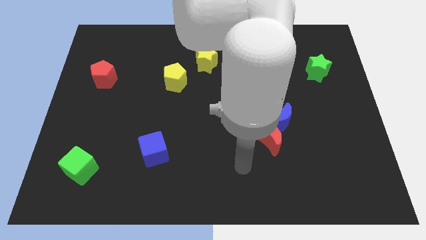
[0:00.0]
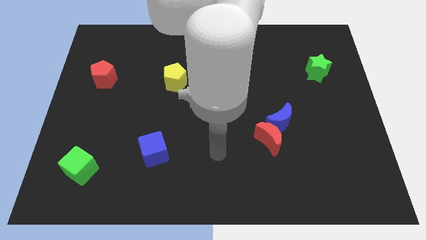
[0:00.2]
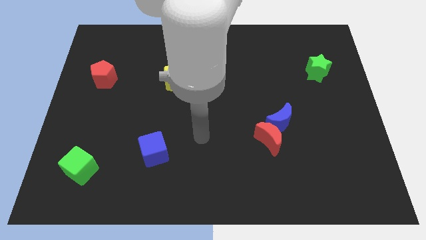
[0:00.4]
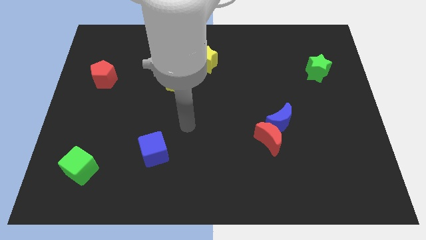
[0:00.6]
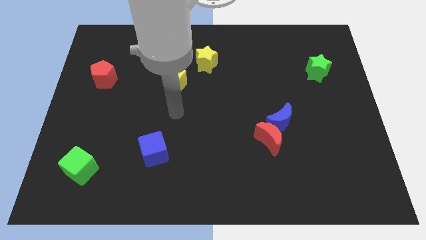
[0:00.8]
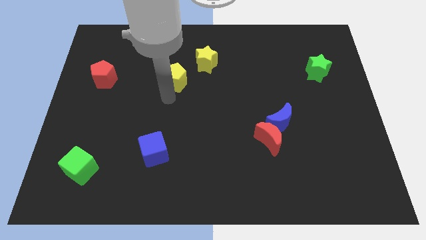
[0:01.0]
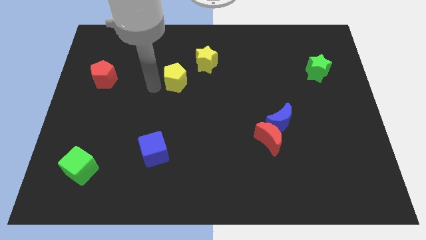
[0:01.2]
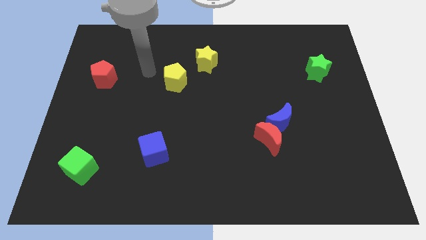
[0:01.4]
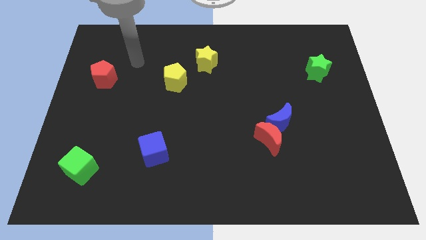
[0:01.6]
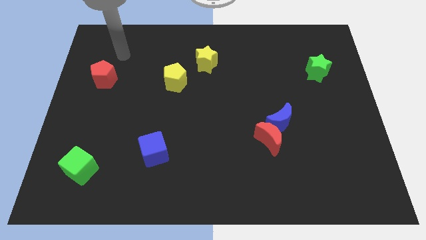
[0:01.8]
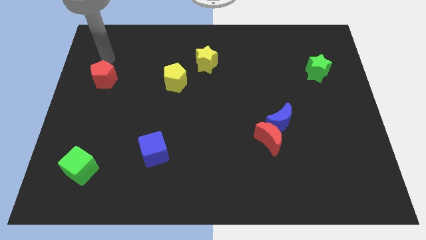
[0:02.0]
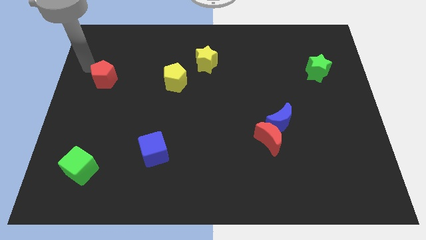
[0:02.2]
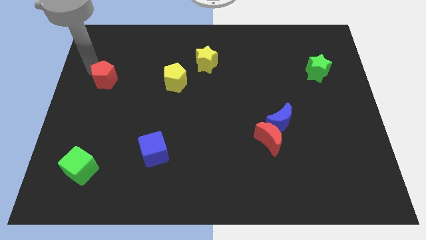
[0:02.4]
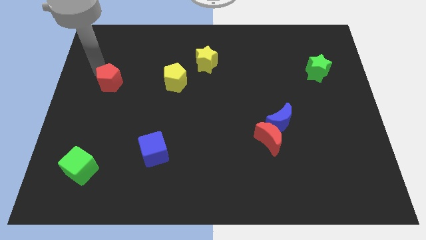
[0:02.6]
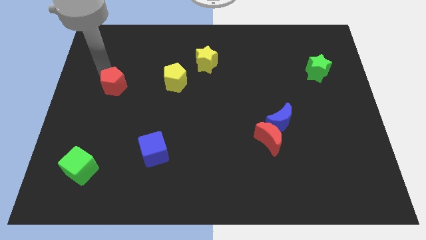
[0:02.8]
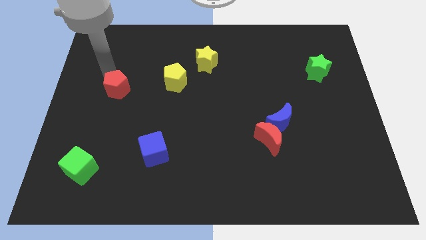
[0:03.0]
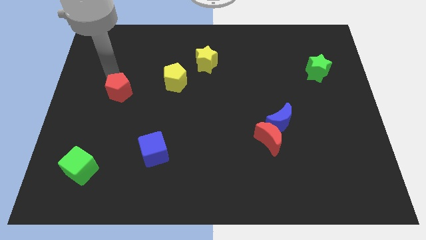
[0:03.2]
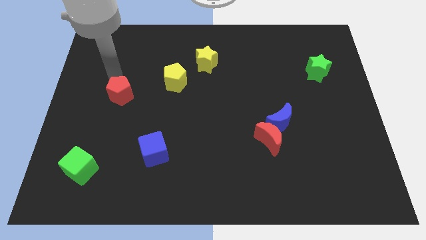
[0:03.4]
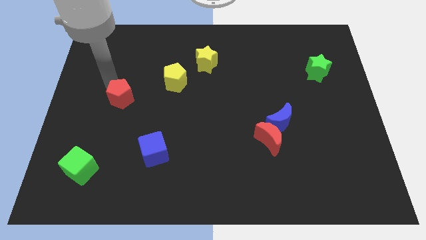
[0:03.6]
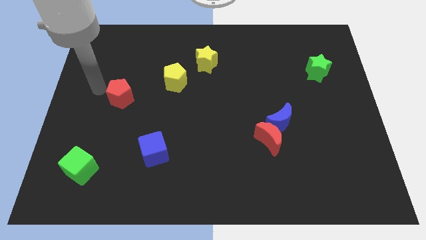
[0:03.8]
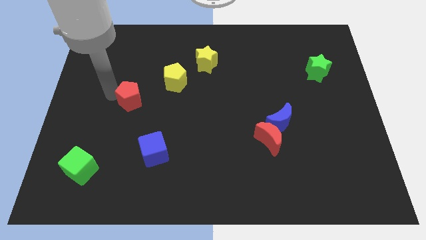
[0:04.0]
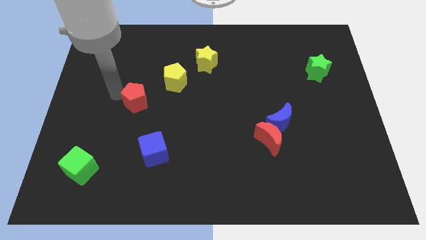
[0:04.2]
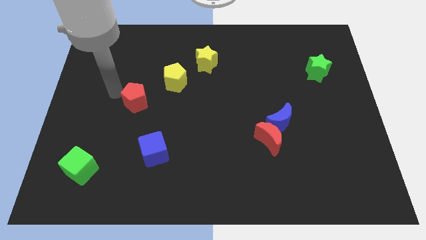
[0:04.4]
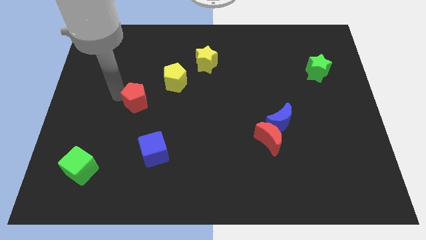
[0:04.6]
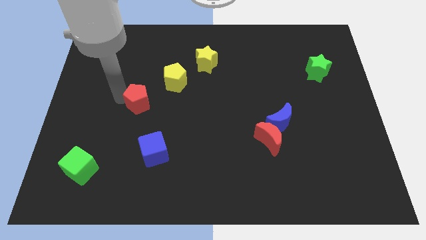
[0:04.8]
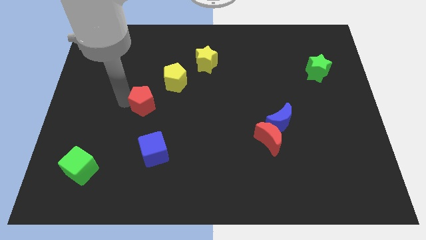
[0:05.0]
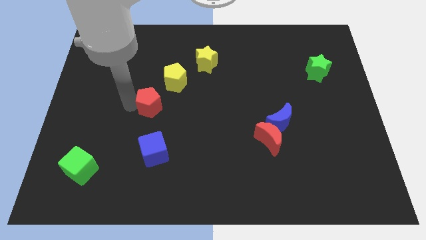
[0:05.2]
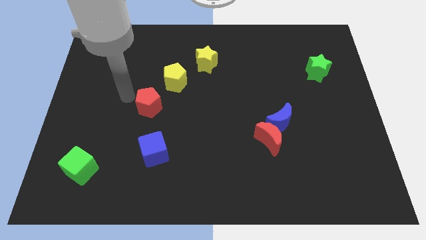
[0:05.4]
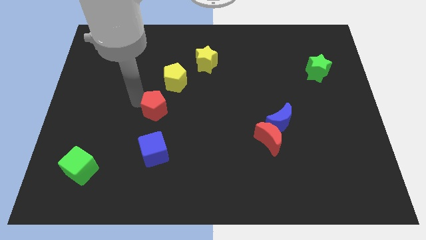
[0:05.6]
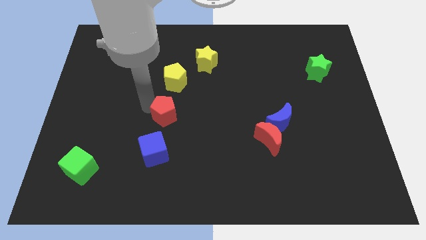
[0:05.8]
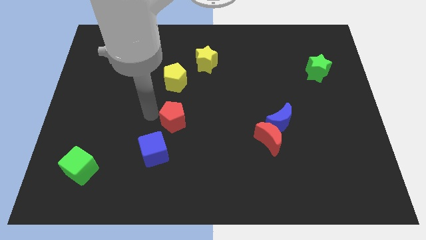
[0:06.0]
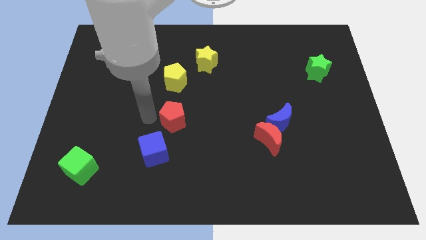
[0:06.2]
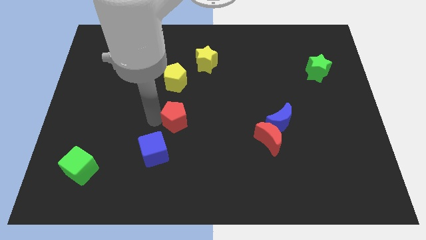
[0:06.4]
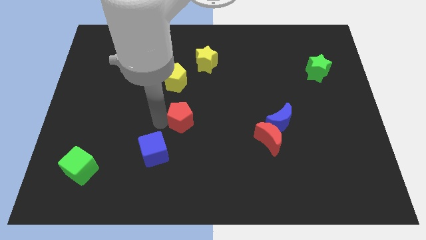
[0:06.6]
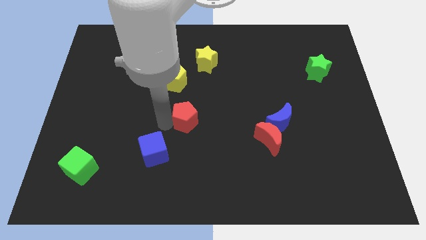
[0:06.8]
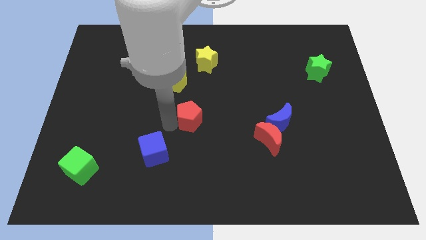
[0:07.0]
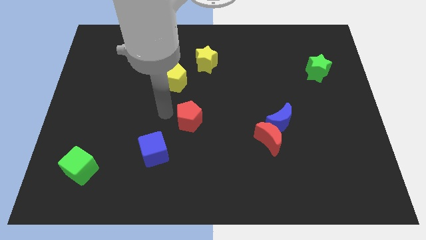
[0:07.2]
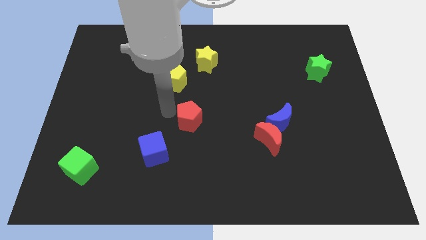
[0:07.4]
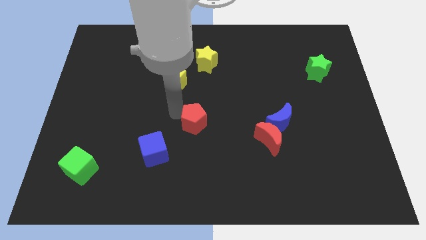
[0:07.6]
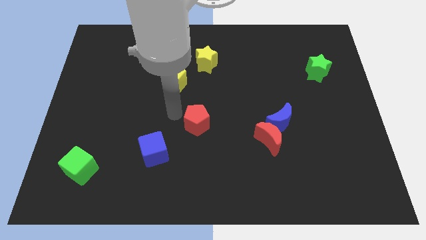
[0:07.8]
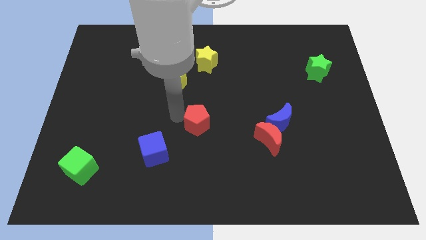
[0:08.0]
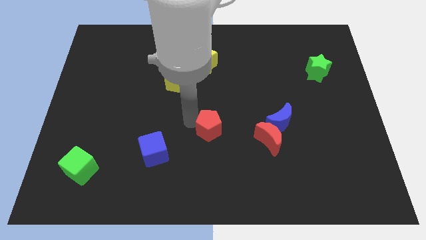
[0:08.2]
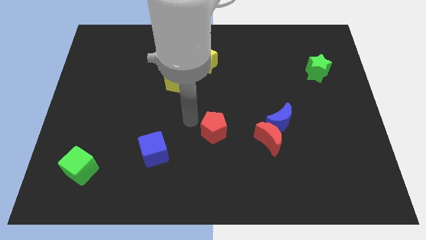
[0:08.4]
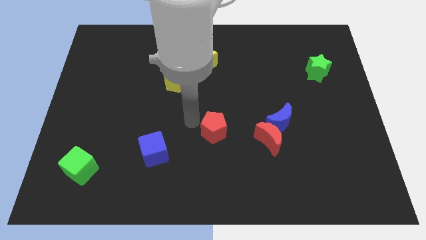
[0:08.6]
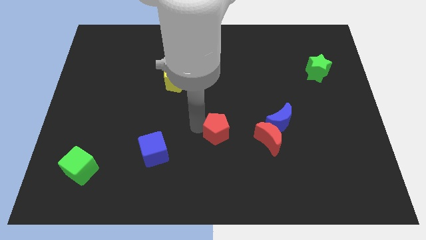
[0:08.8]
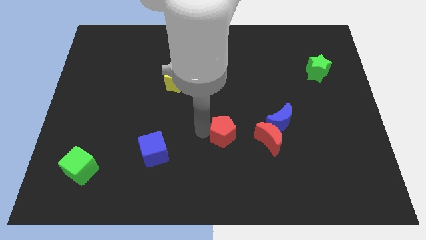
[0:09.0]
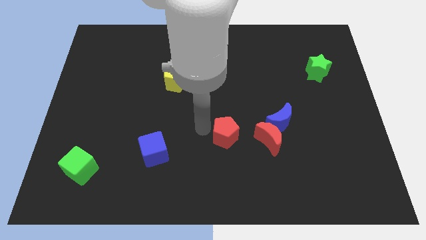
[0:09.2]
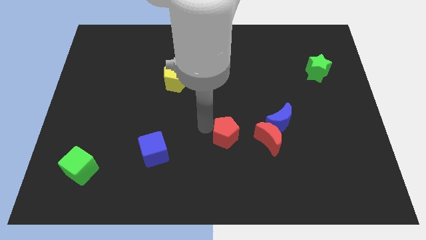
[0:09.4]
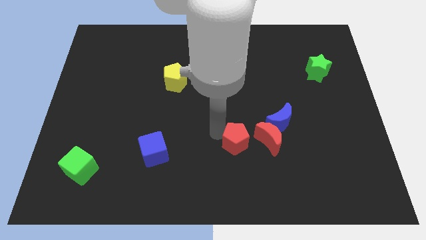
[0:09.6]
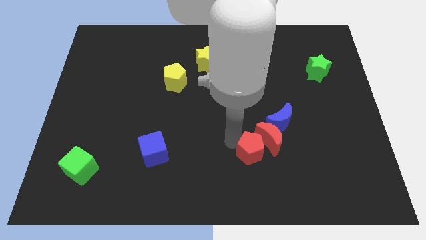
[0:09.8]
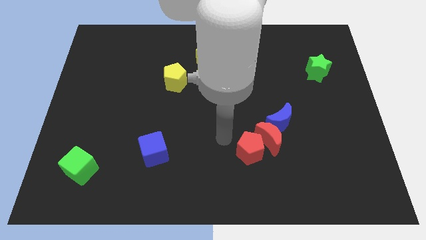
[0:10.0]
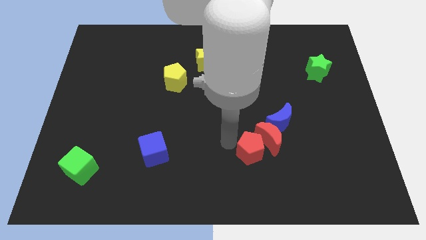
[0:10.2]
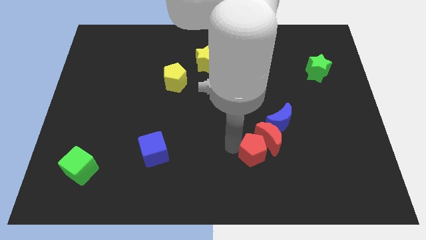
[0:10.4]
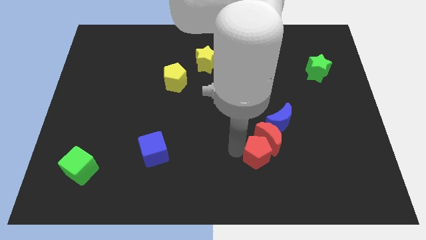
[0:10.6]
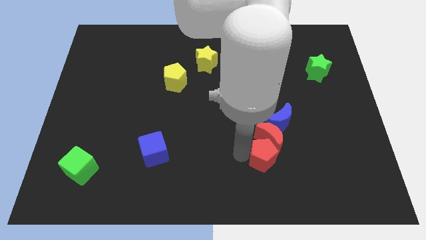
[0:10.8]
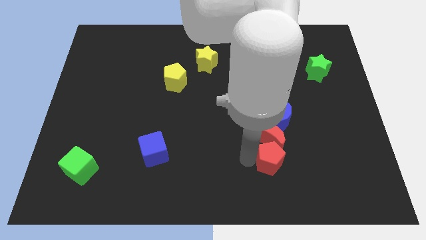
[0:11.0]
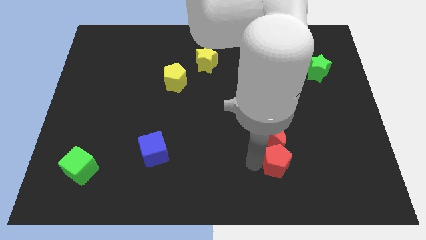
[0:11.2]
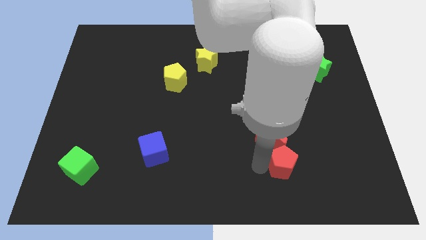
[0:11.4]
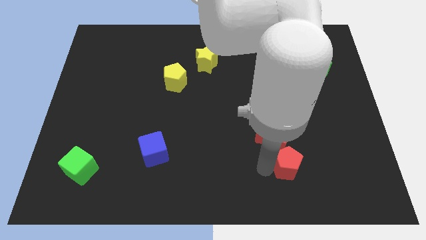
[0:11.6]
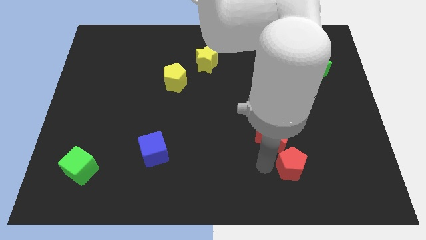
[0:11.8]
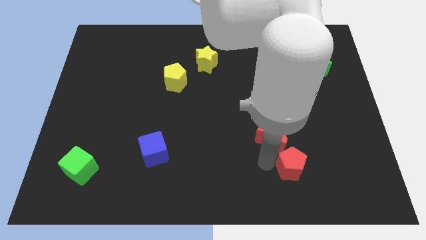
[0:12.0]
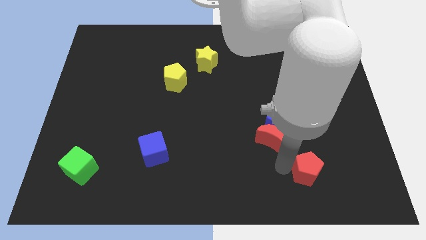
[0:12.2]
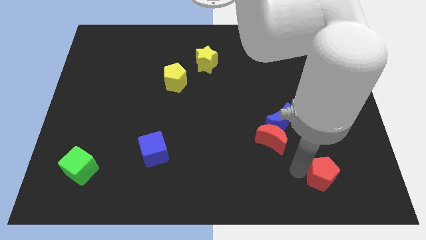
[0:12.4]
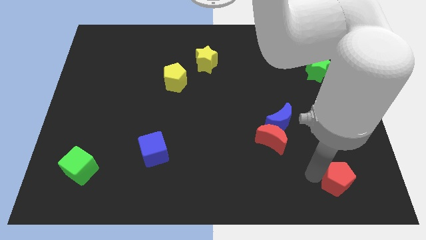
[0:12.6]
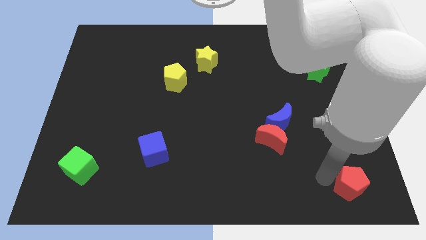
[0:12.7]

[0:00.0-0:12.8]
move the red pentagon to the lower right corner

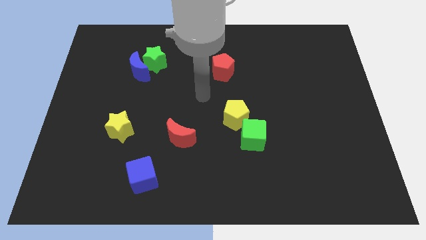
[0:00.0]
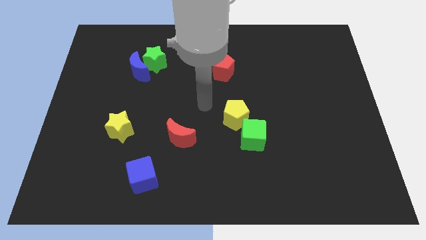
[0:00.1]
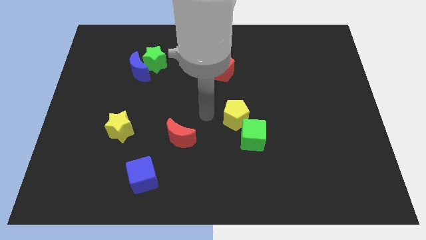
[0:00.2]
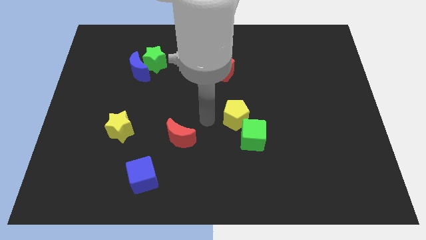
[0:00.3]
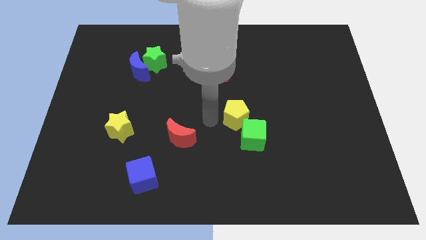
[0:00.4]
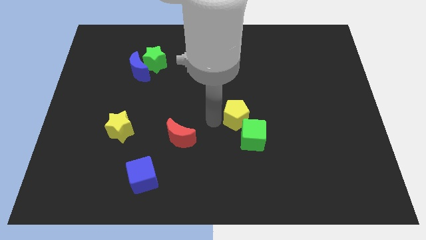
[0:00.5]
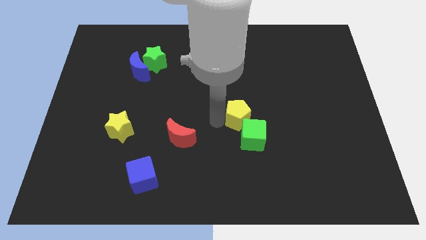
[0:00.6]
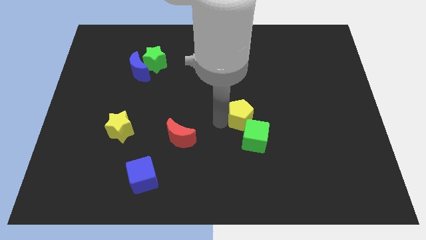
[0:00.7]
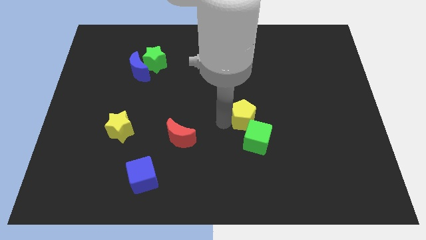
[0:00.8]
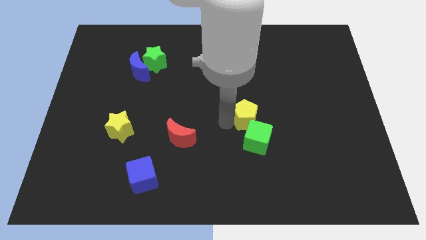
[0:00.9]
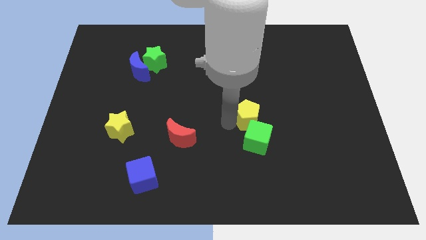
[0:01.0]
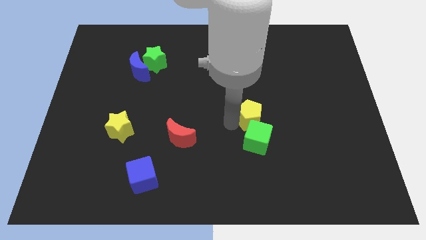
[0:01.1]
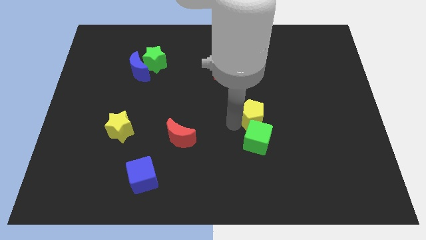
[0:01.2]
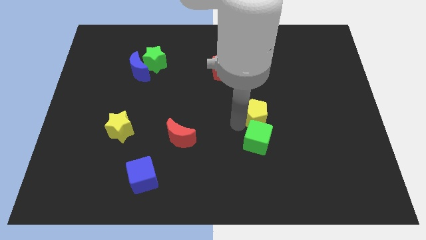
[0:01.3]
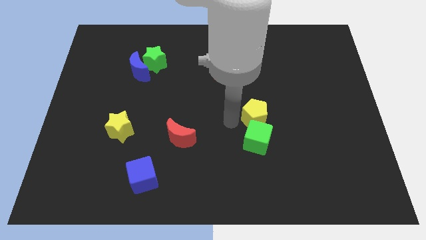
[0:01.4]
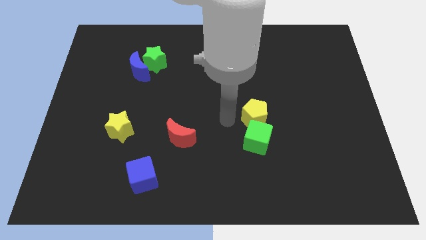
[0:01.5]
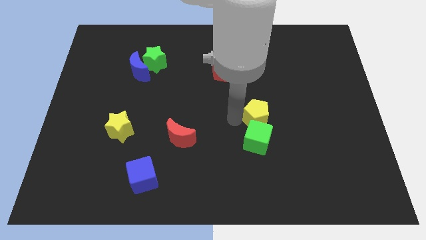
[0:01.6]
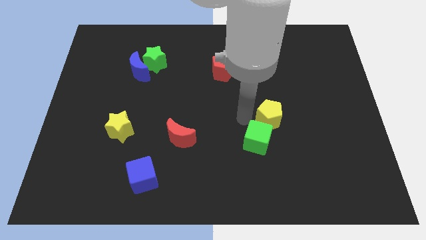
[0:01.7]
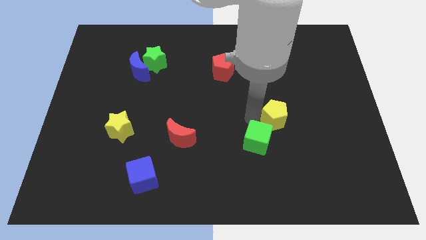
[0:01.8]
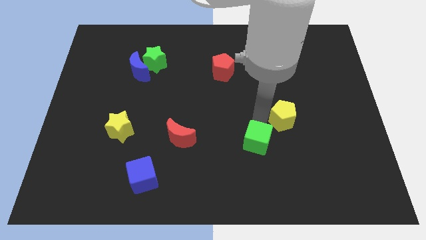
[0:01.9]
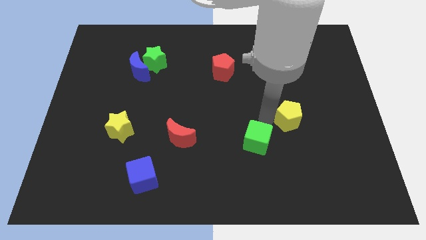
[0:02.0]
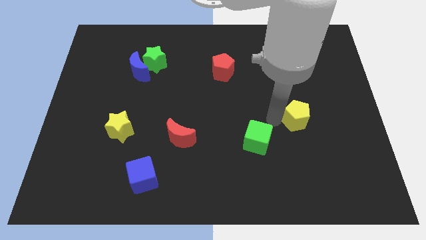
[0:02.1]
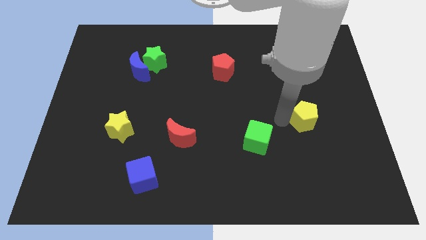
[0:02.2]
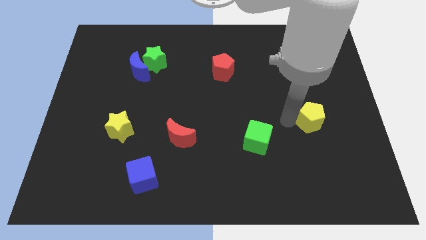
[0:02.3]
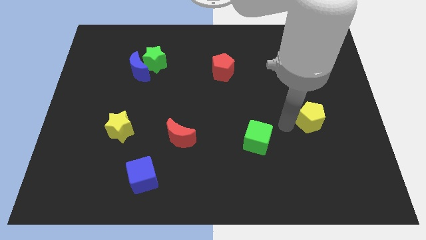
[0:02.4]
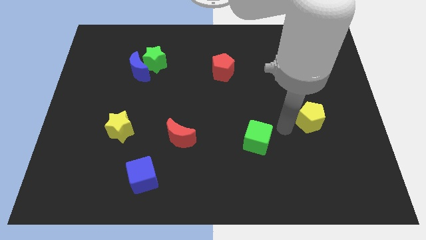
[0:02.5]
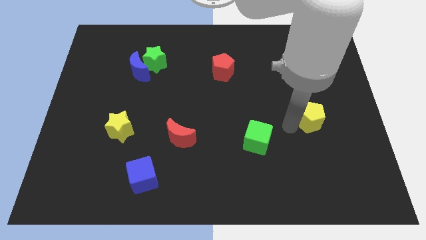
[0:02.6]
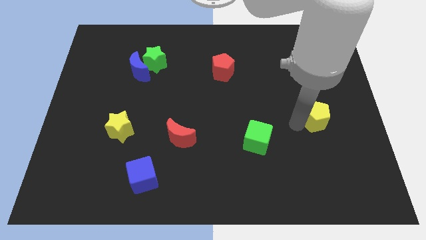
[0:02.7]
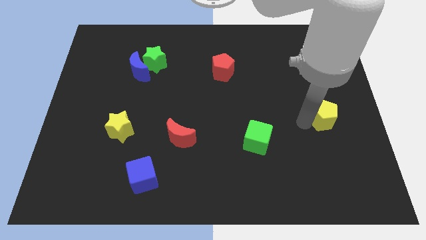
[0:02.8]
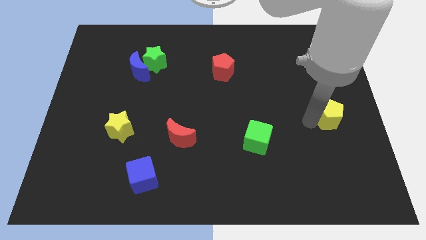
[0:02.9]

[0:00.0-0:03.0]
slide the yellow pentagon to the right side
